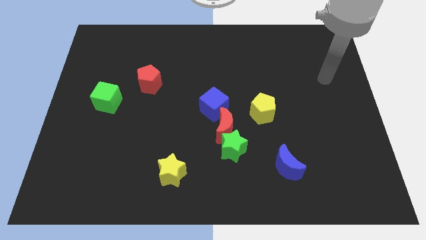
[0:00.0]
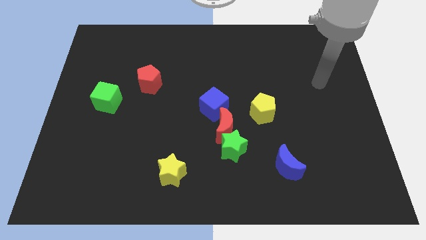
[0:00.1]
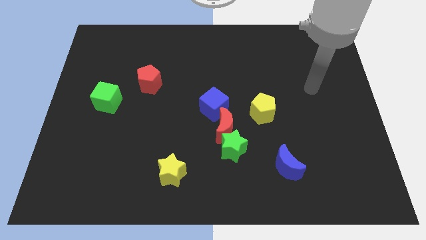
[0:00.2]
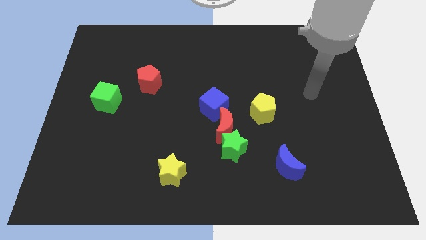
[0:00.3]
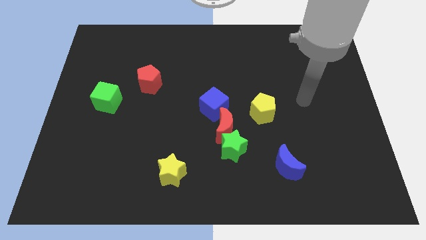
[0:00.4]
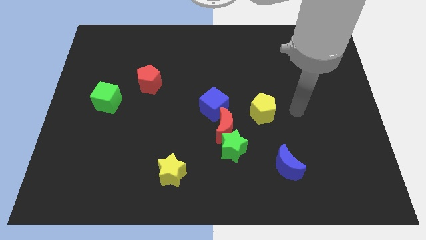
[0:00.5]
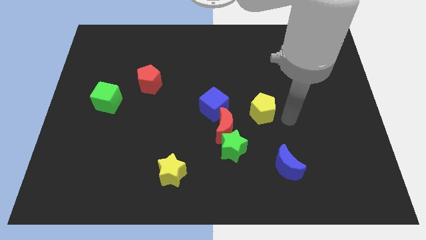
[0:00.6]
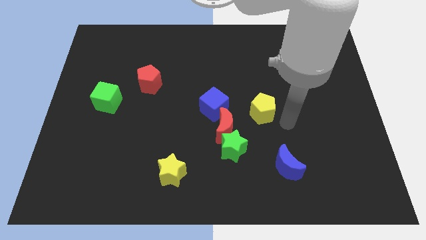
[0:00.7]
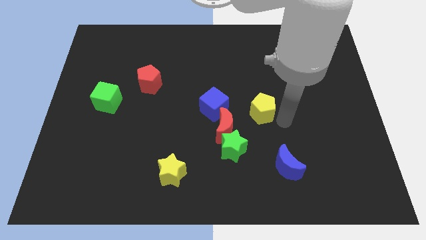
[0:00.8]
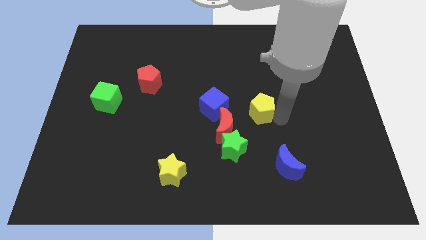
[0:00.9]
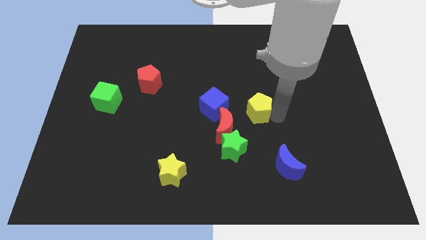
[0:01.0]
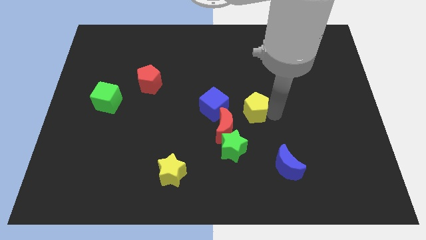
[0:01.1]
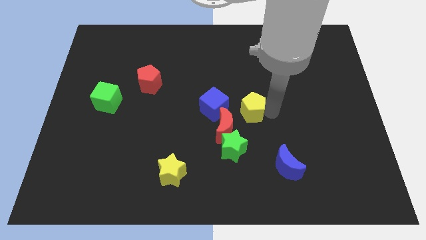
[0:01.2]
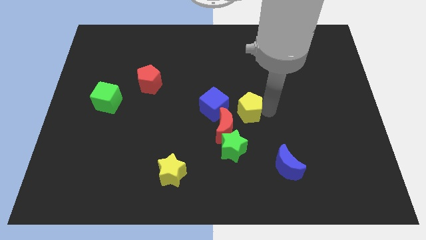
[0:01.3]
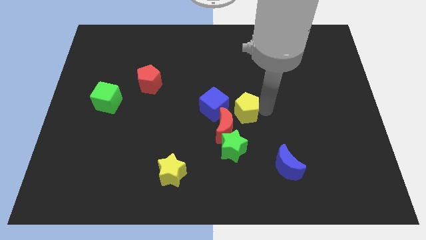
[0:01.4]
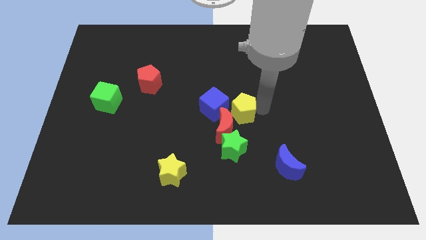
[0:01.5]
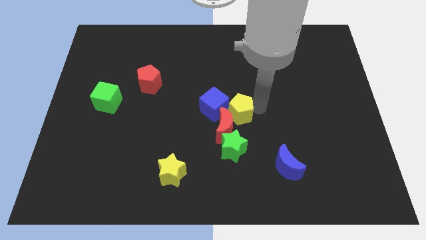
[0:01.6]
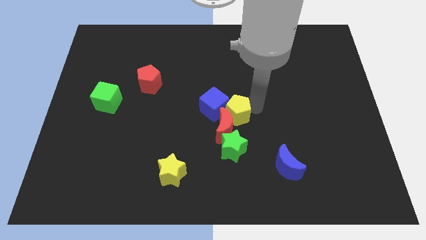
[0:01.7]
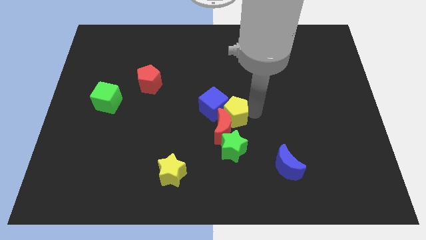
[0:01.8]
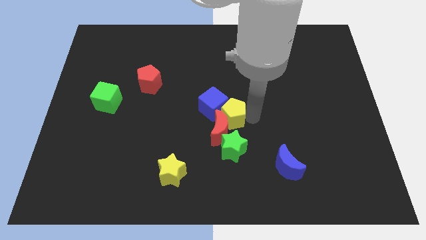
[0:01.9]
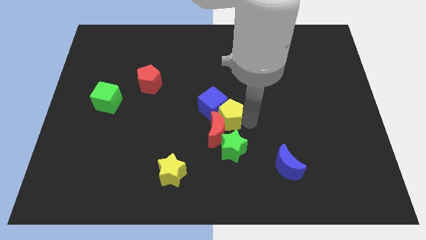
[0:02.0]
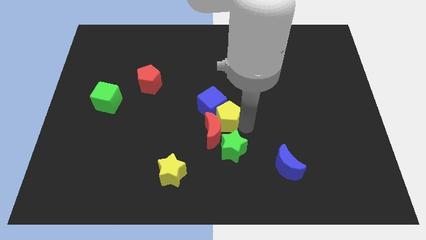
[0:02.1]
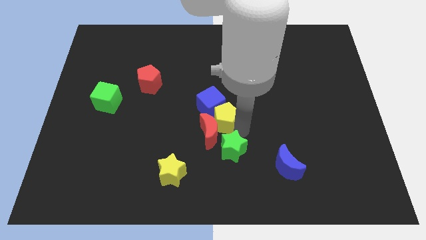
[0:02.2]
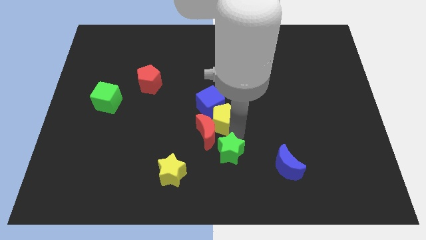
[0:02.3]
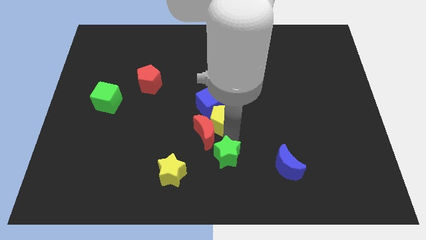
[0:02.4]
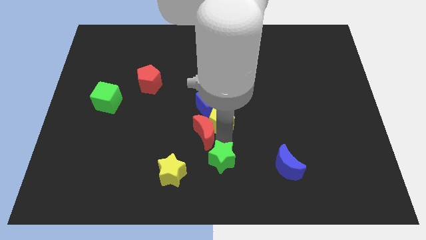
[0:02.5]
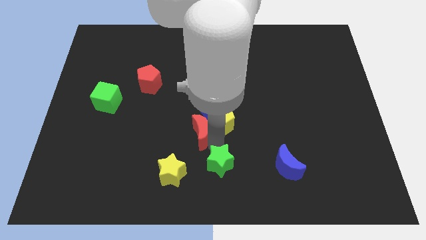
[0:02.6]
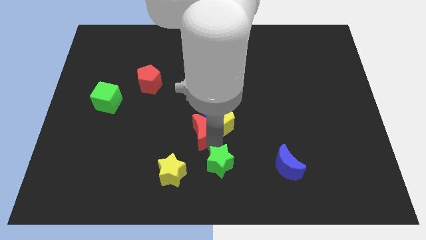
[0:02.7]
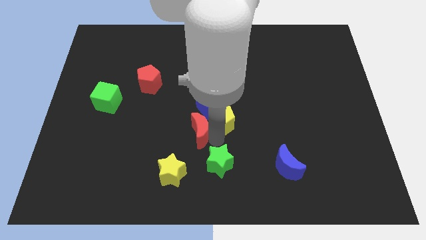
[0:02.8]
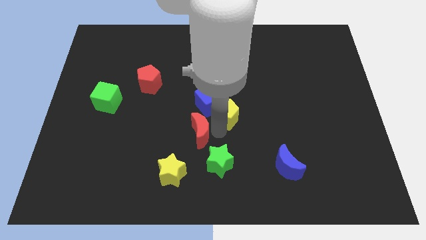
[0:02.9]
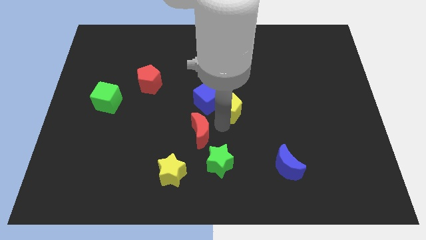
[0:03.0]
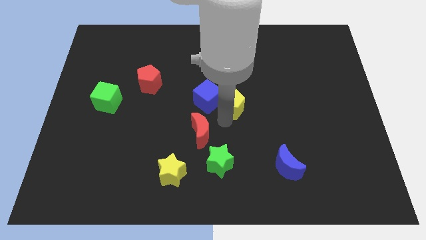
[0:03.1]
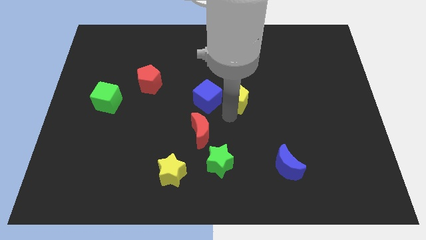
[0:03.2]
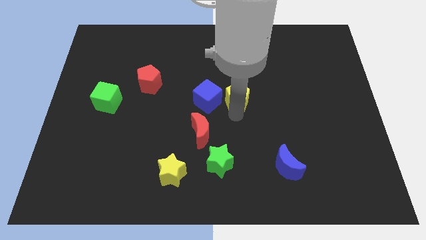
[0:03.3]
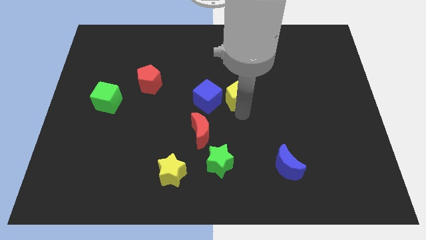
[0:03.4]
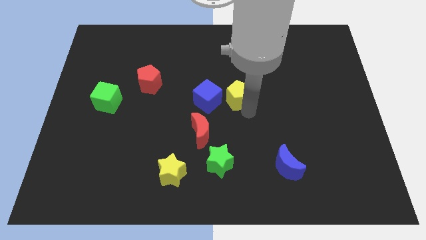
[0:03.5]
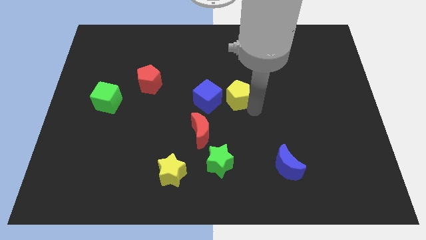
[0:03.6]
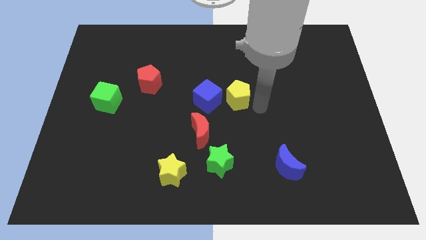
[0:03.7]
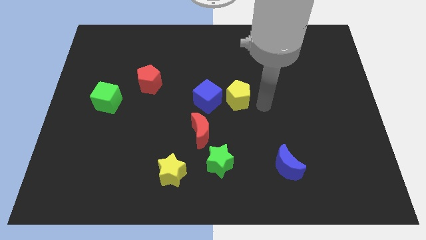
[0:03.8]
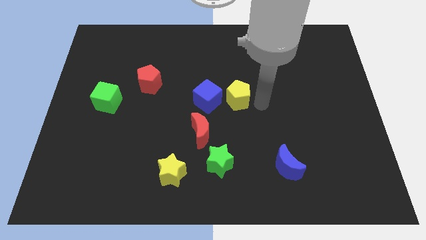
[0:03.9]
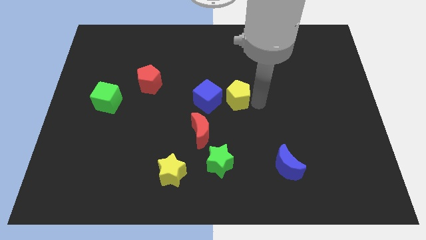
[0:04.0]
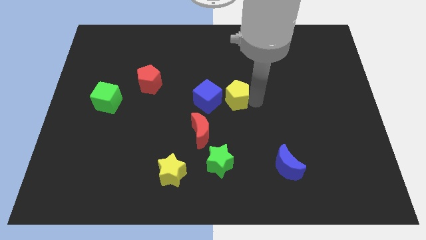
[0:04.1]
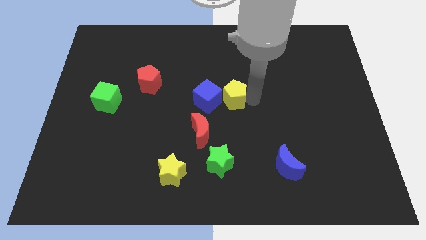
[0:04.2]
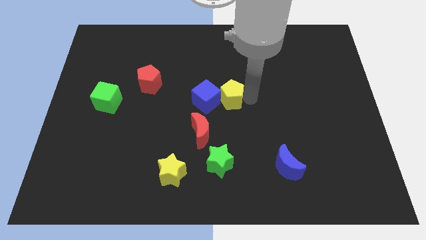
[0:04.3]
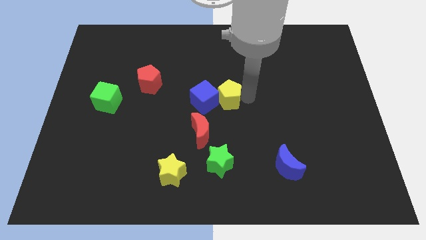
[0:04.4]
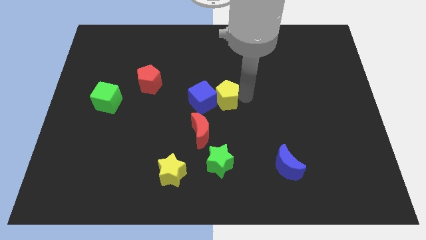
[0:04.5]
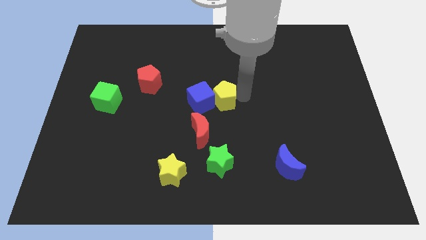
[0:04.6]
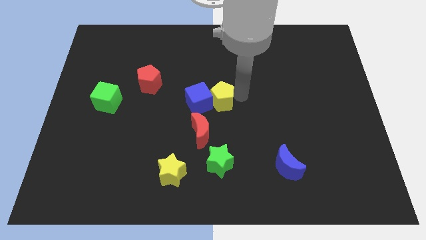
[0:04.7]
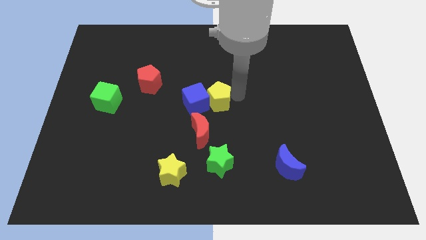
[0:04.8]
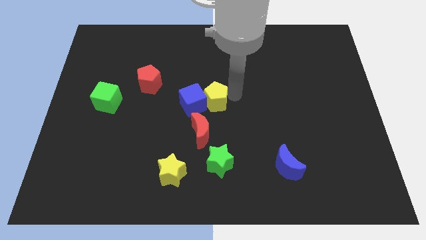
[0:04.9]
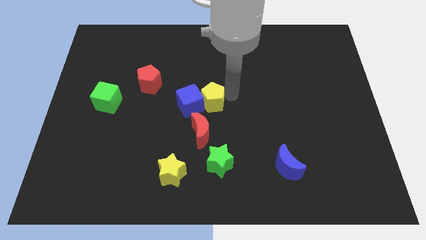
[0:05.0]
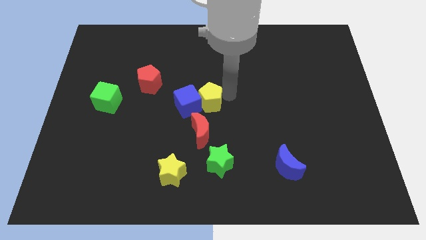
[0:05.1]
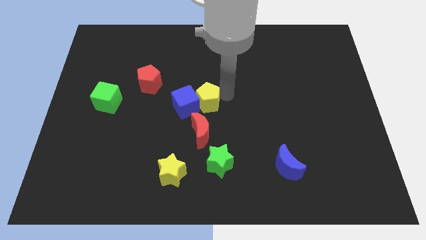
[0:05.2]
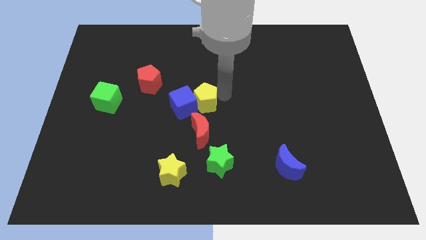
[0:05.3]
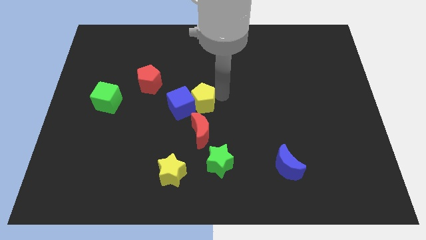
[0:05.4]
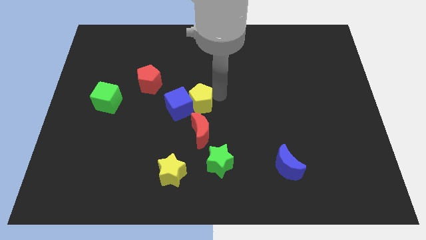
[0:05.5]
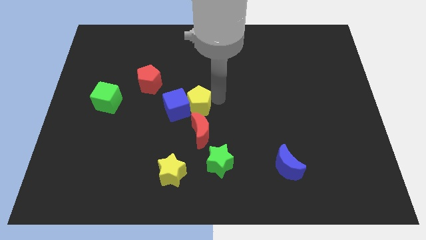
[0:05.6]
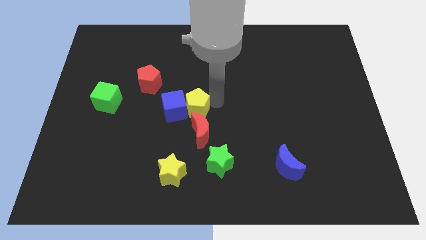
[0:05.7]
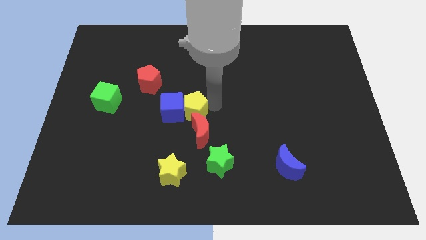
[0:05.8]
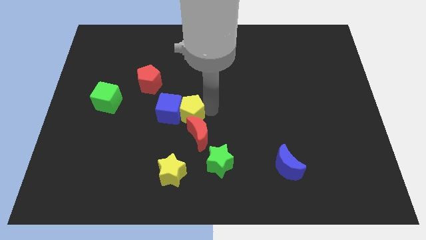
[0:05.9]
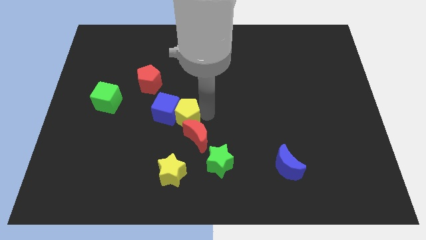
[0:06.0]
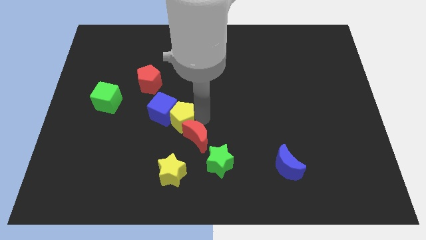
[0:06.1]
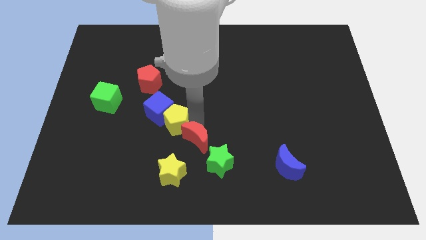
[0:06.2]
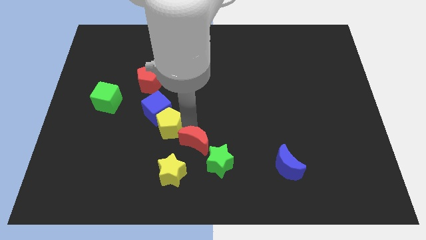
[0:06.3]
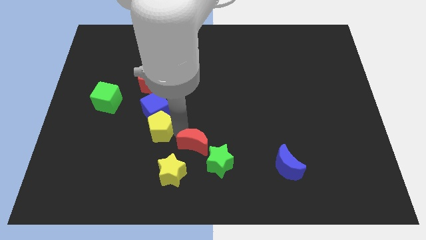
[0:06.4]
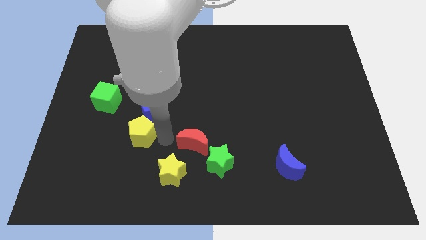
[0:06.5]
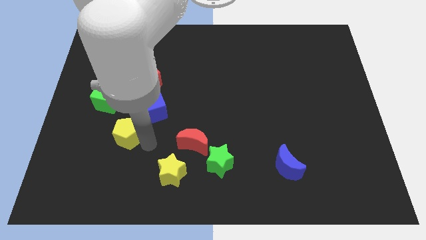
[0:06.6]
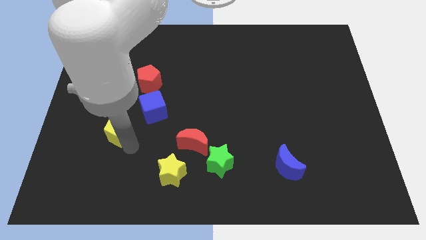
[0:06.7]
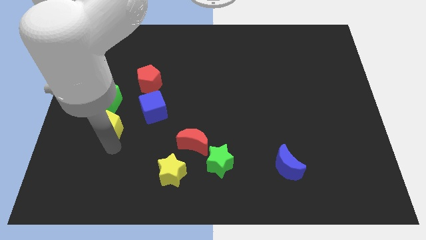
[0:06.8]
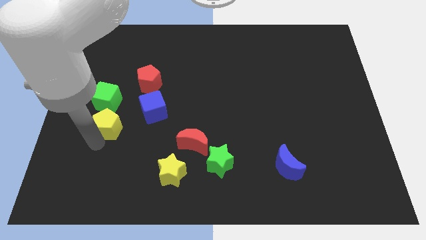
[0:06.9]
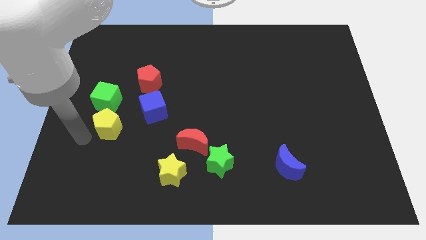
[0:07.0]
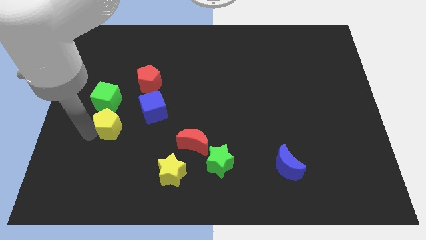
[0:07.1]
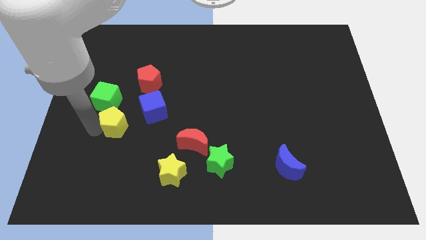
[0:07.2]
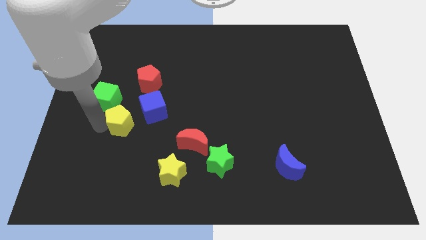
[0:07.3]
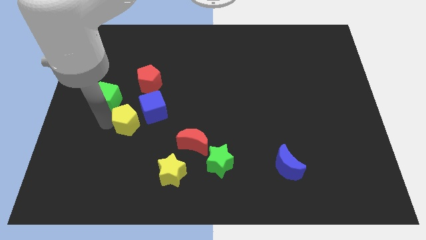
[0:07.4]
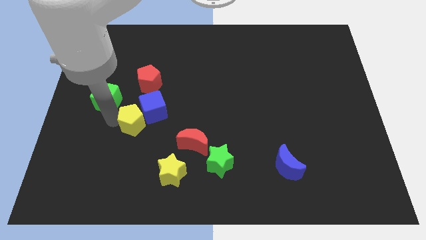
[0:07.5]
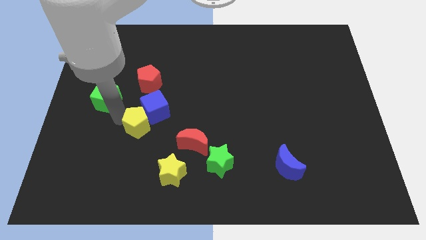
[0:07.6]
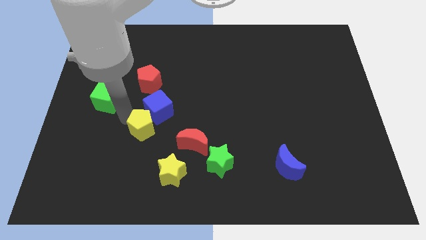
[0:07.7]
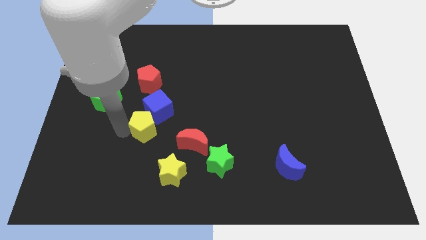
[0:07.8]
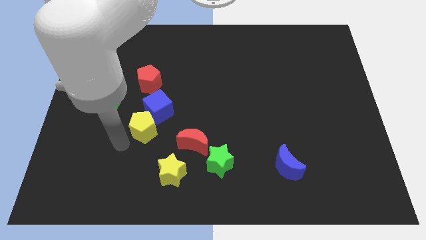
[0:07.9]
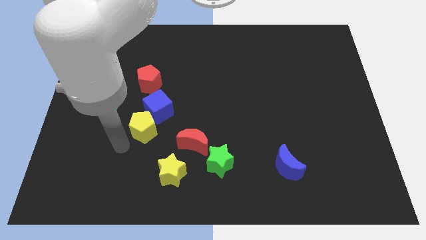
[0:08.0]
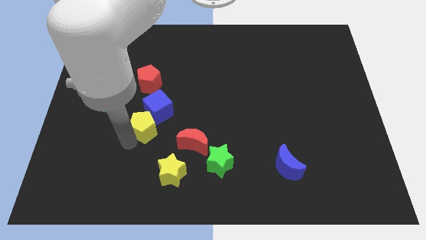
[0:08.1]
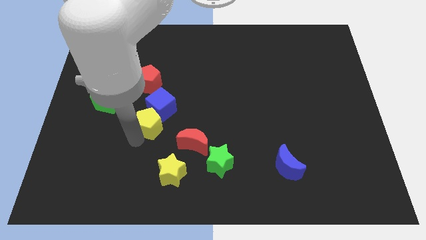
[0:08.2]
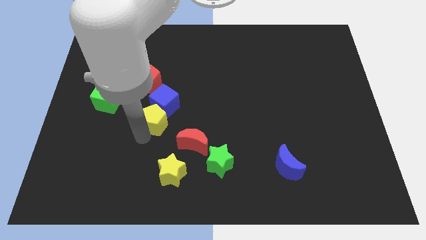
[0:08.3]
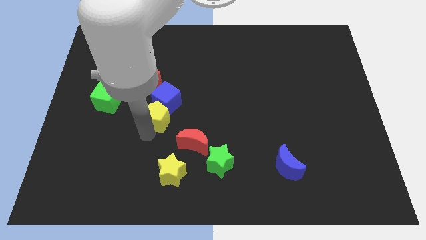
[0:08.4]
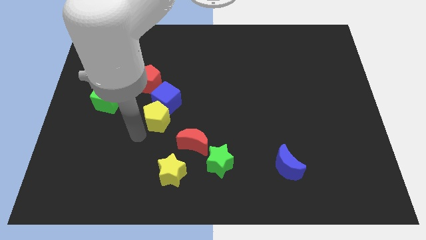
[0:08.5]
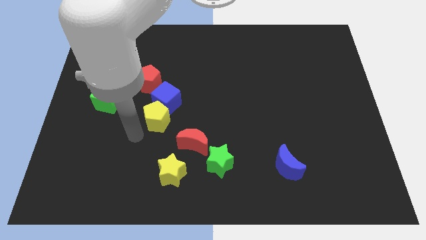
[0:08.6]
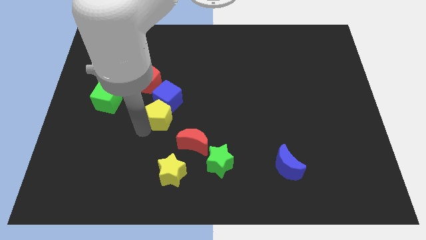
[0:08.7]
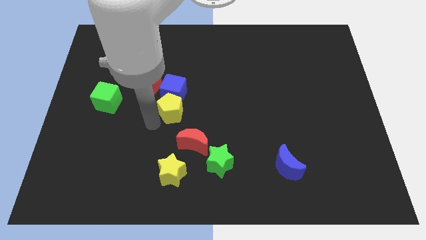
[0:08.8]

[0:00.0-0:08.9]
slide the yellow pentagon to the bottom right side of the red pentagon
